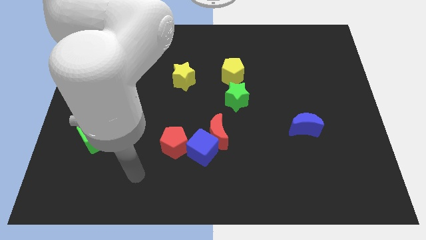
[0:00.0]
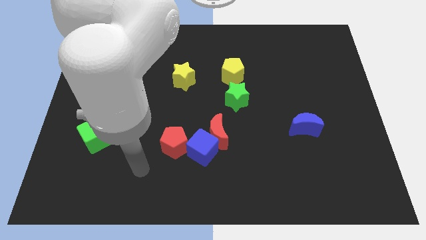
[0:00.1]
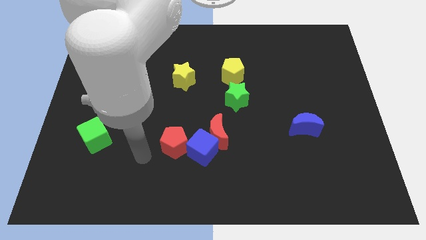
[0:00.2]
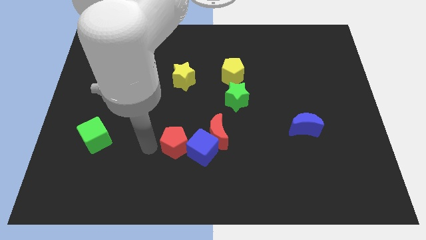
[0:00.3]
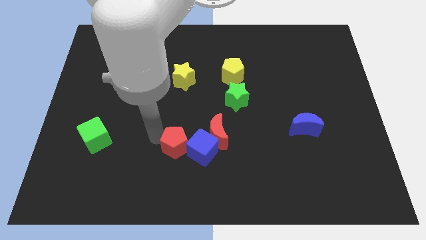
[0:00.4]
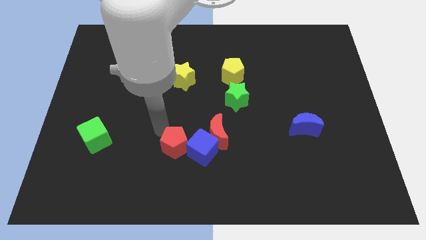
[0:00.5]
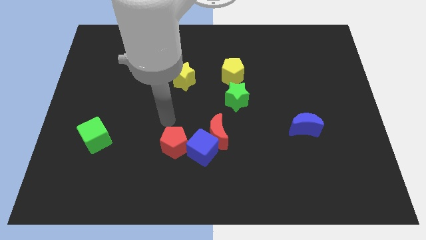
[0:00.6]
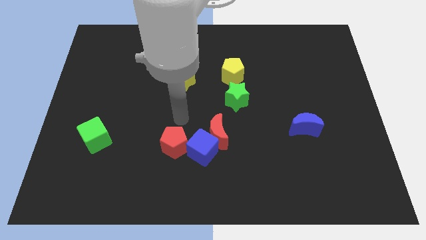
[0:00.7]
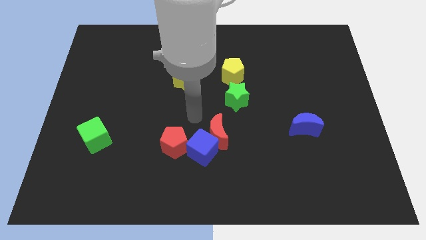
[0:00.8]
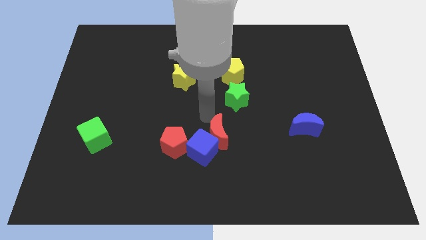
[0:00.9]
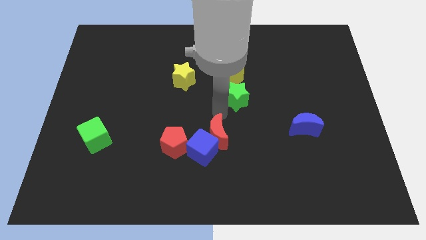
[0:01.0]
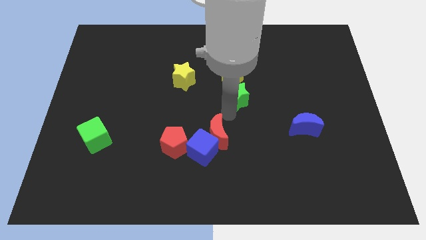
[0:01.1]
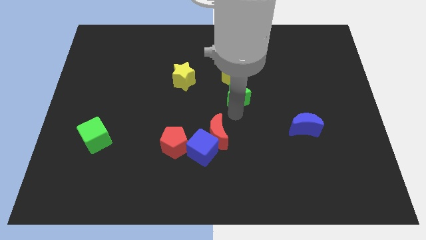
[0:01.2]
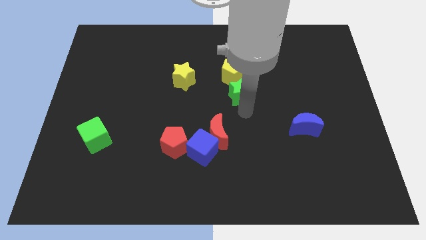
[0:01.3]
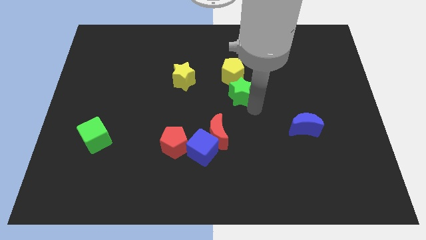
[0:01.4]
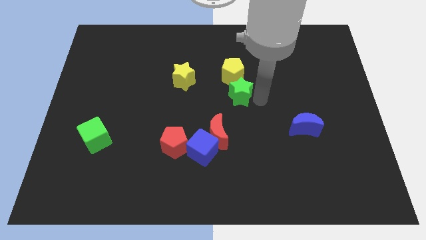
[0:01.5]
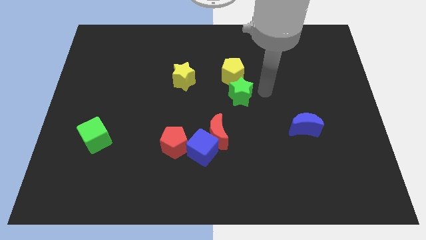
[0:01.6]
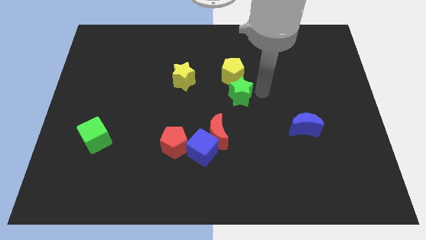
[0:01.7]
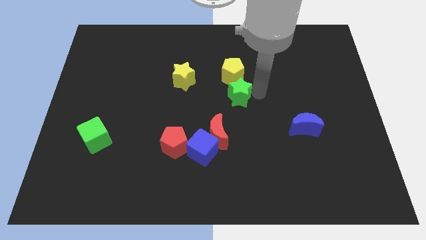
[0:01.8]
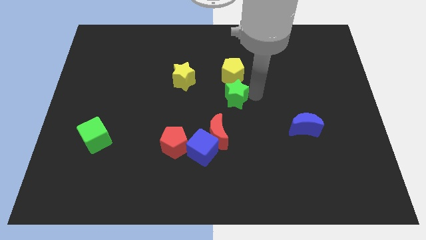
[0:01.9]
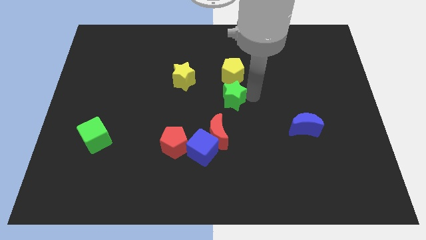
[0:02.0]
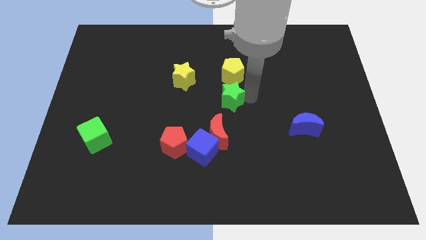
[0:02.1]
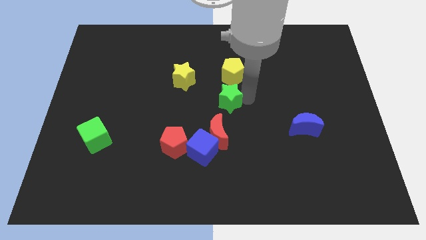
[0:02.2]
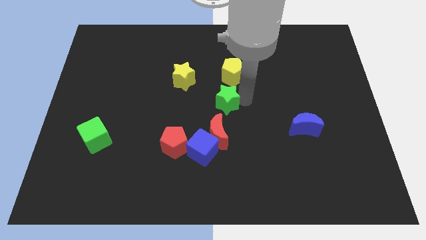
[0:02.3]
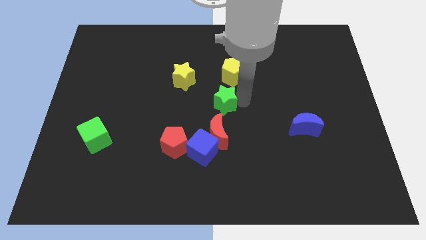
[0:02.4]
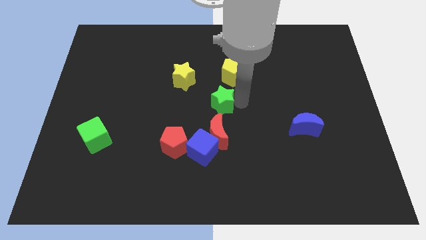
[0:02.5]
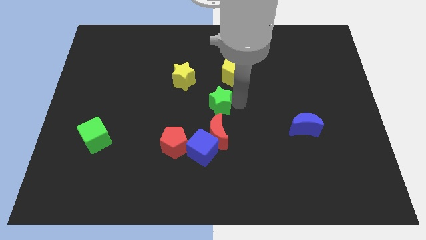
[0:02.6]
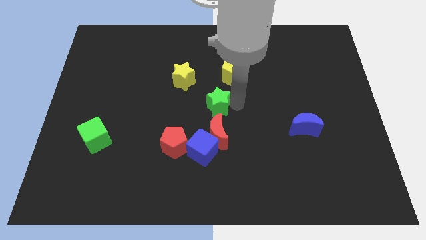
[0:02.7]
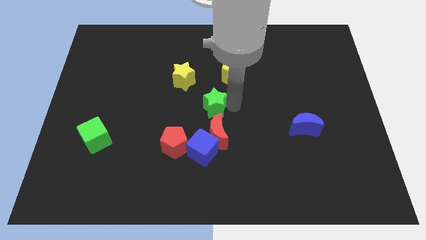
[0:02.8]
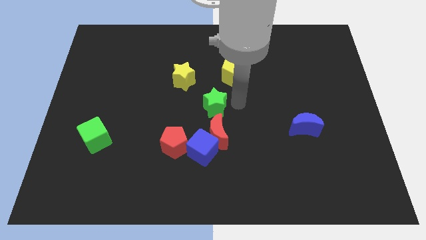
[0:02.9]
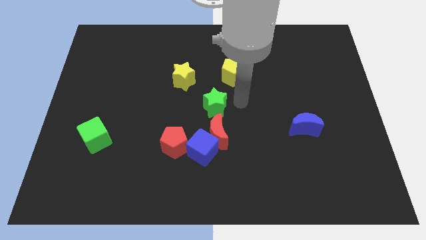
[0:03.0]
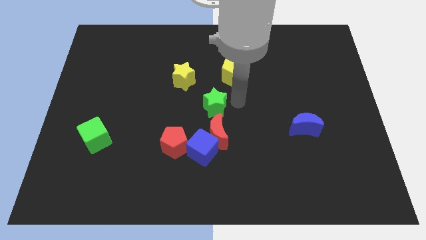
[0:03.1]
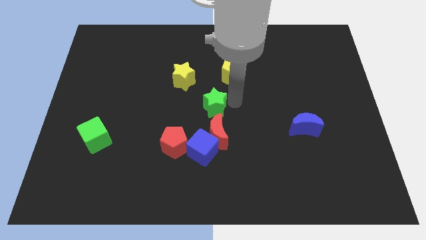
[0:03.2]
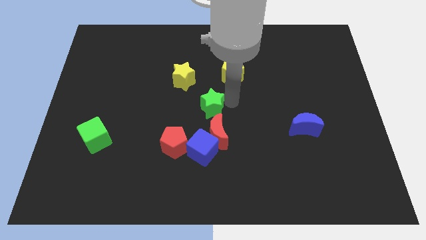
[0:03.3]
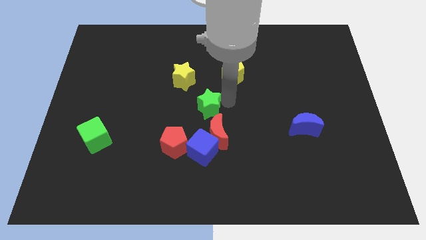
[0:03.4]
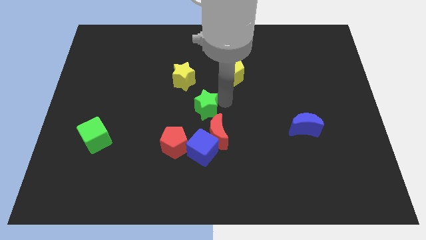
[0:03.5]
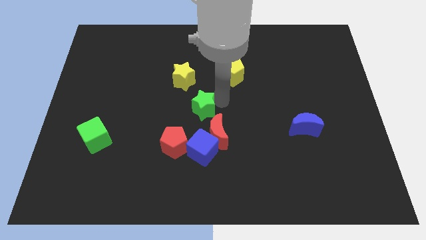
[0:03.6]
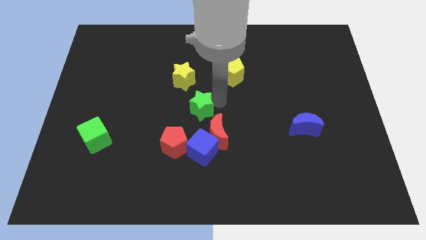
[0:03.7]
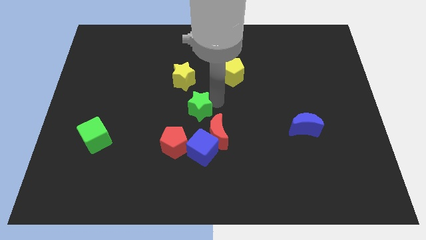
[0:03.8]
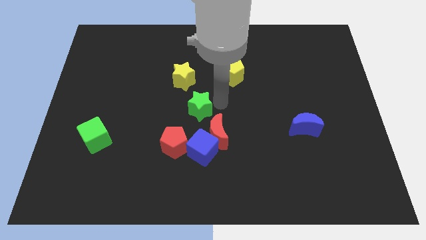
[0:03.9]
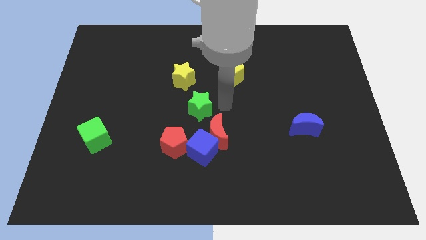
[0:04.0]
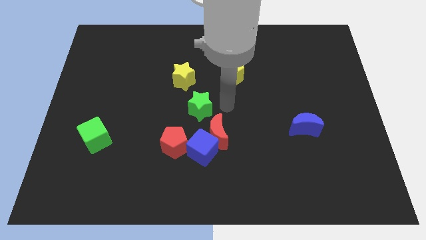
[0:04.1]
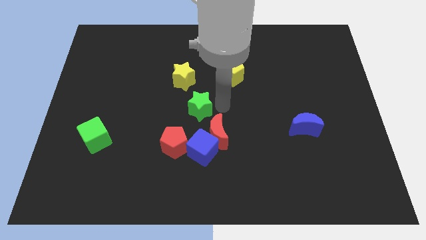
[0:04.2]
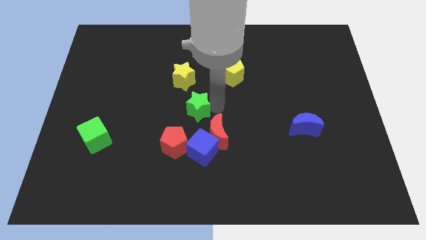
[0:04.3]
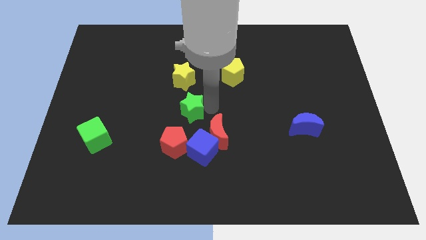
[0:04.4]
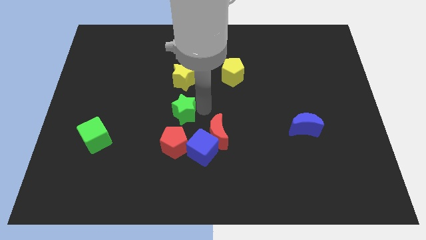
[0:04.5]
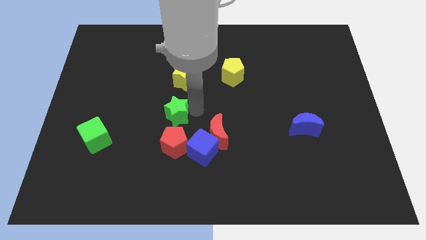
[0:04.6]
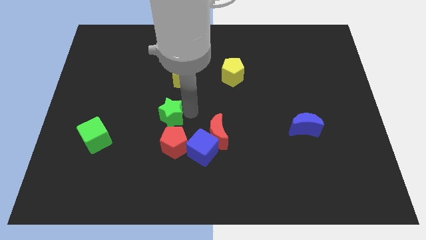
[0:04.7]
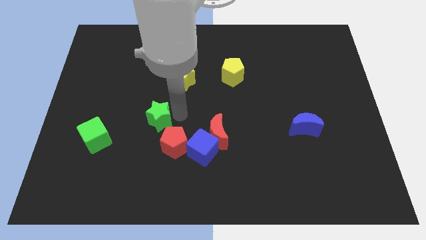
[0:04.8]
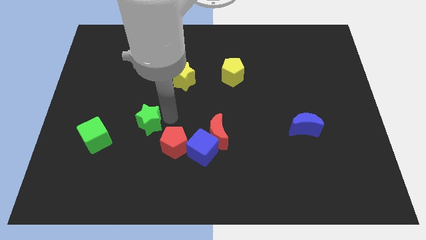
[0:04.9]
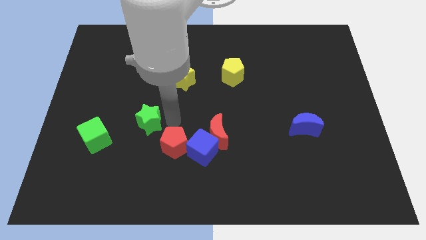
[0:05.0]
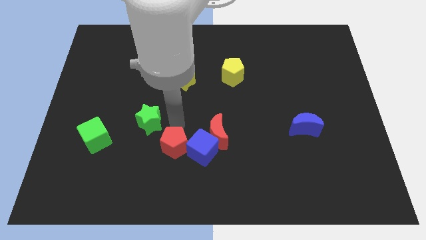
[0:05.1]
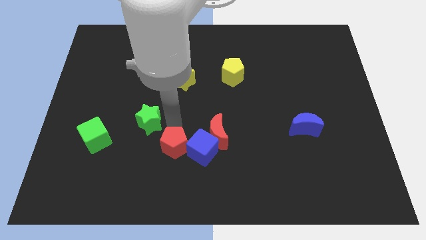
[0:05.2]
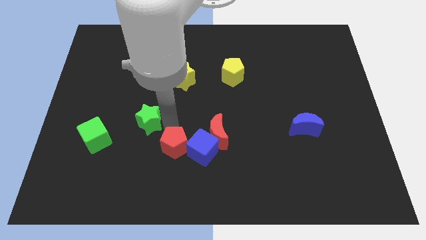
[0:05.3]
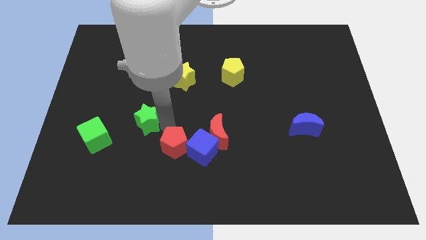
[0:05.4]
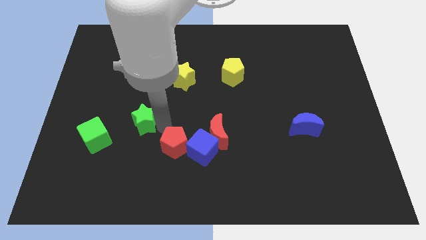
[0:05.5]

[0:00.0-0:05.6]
put the green star to the top right of the green cube

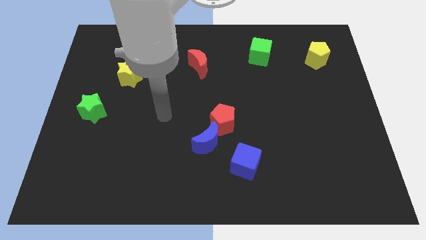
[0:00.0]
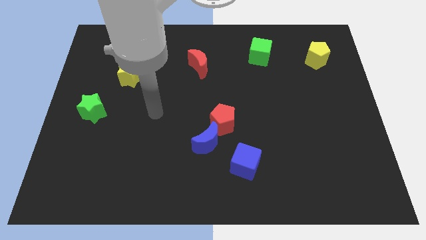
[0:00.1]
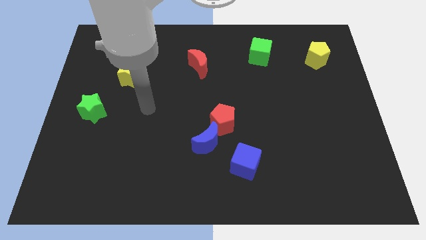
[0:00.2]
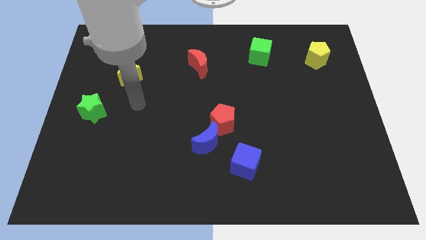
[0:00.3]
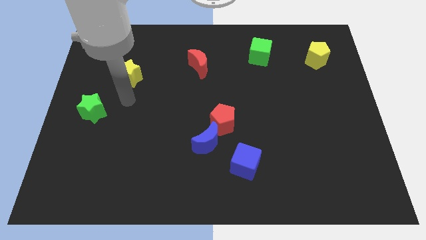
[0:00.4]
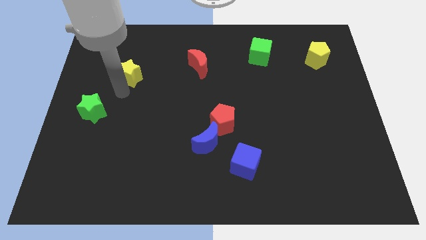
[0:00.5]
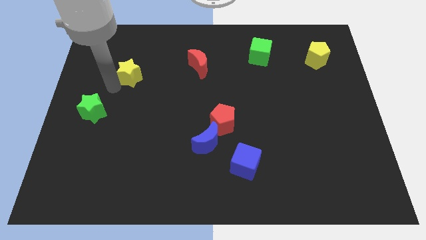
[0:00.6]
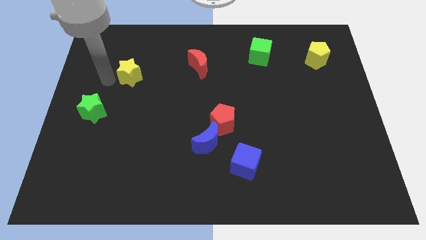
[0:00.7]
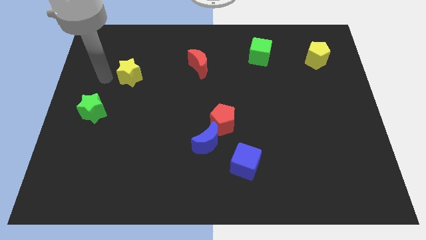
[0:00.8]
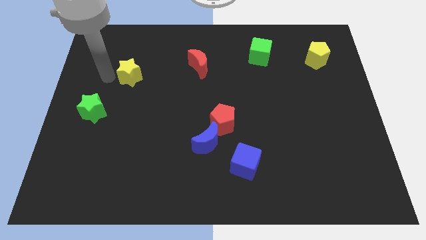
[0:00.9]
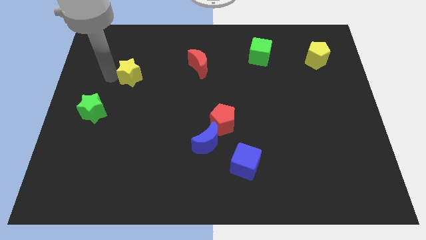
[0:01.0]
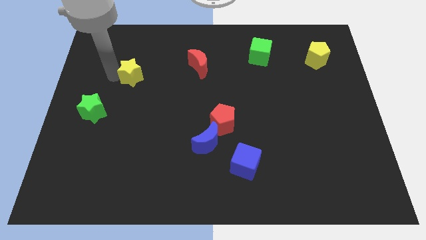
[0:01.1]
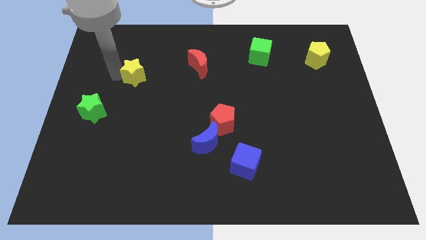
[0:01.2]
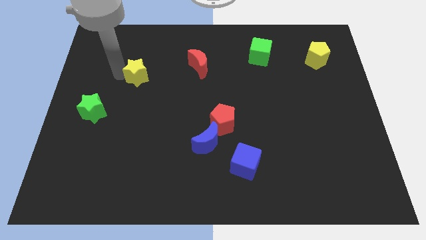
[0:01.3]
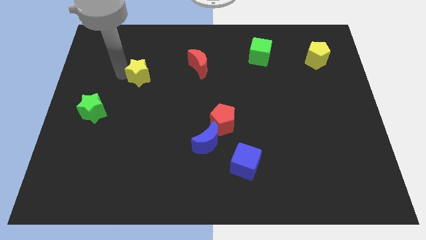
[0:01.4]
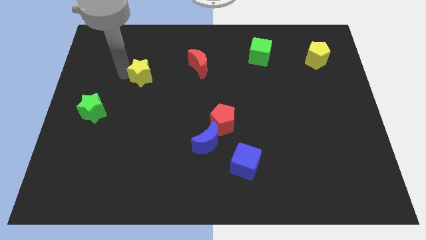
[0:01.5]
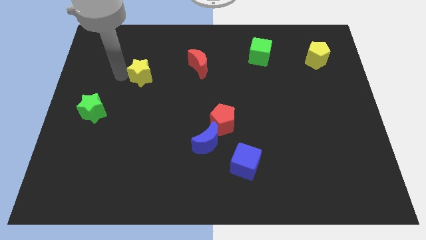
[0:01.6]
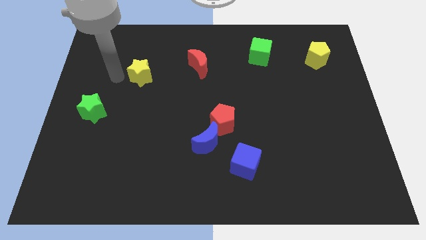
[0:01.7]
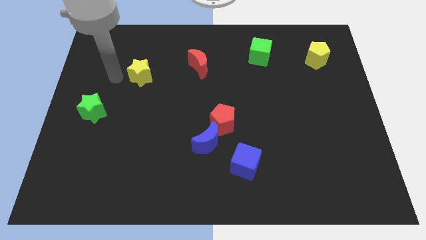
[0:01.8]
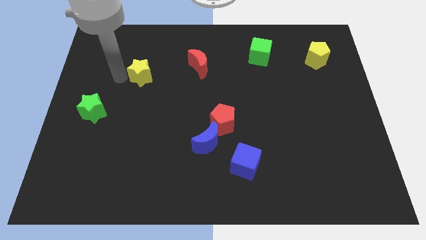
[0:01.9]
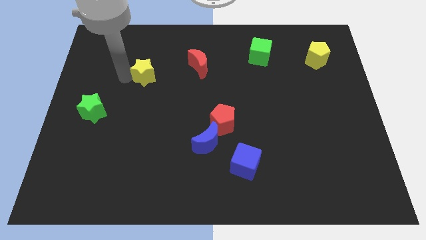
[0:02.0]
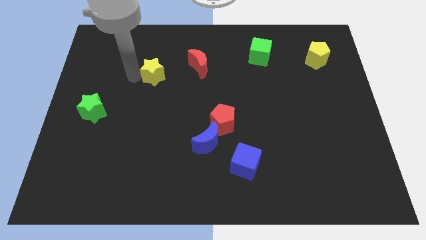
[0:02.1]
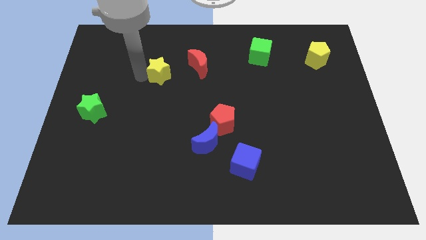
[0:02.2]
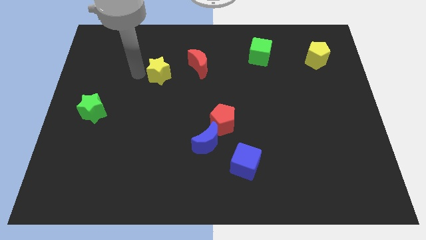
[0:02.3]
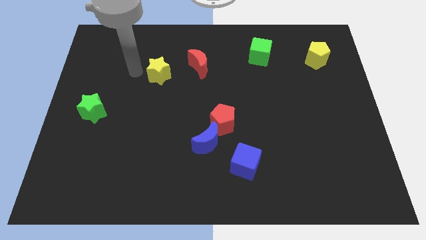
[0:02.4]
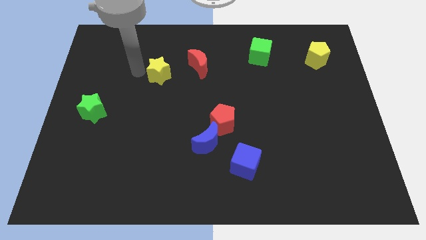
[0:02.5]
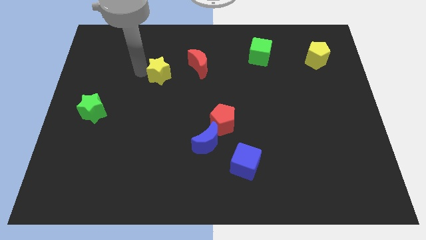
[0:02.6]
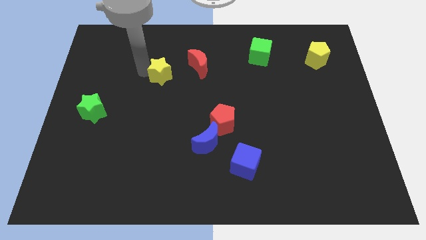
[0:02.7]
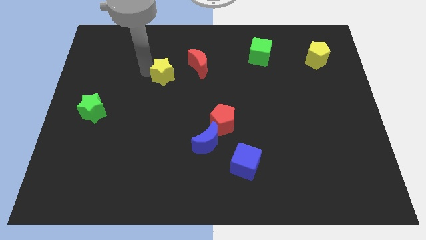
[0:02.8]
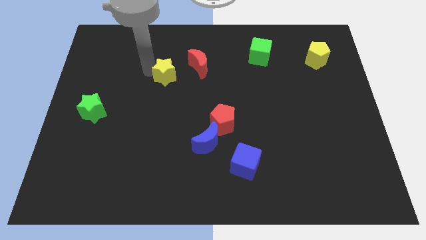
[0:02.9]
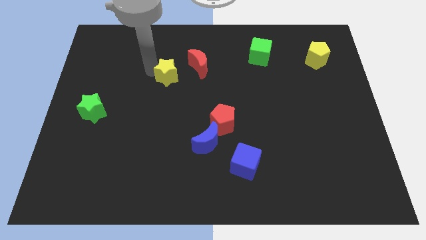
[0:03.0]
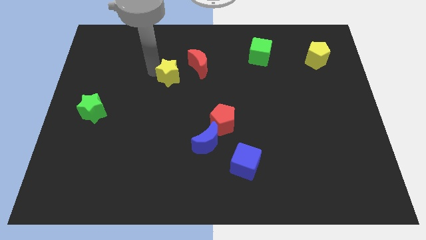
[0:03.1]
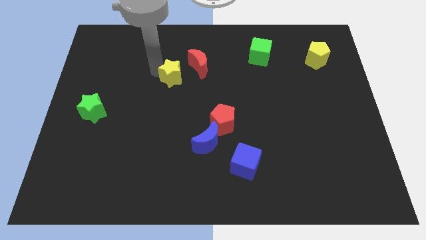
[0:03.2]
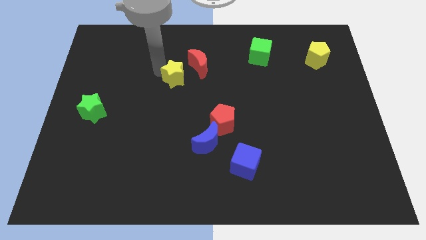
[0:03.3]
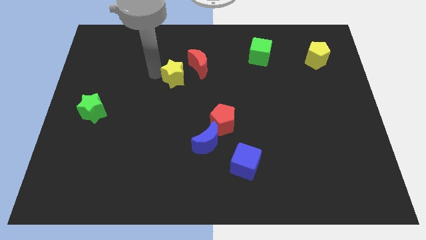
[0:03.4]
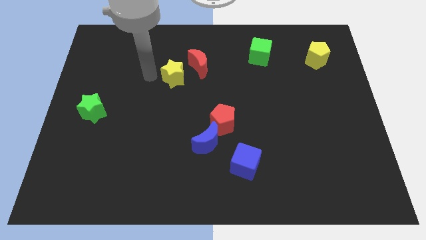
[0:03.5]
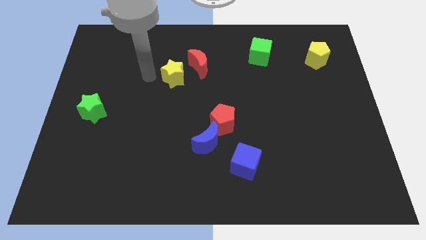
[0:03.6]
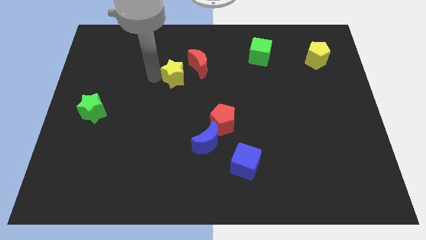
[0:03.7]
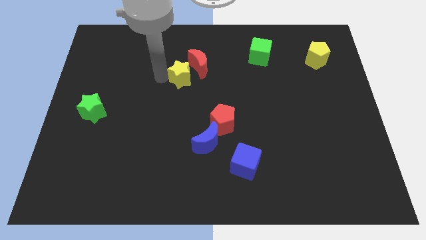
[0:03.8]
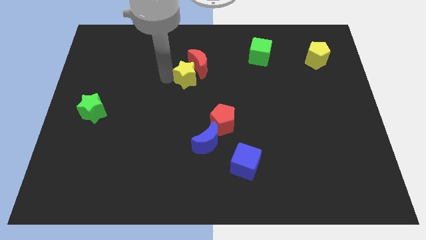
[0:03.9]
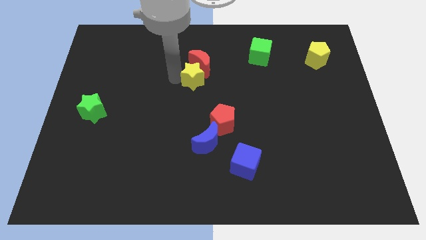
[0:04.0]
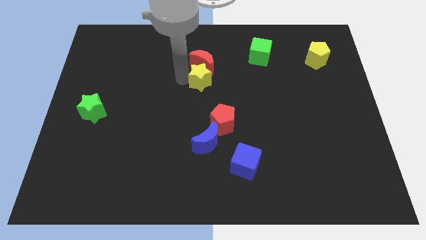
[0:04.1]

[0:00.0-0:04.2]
slide the yellow star to the bottom right side of the red moon
